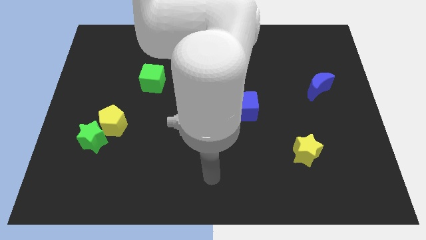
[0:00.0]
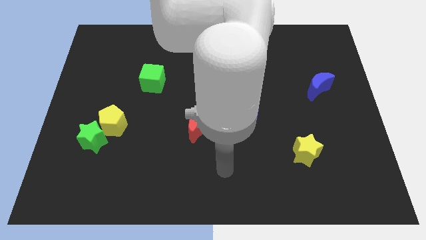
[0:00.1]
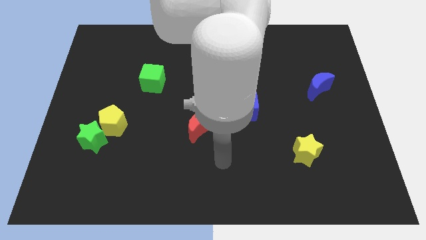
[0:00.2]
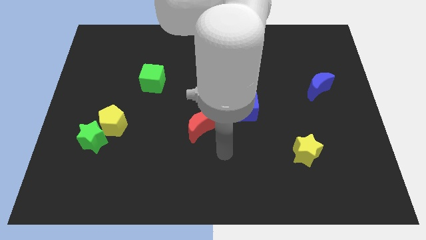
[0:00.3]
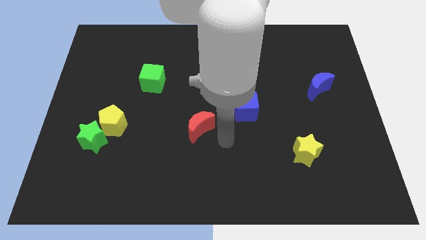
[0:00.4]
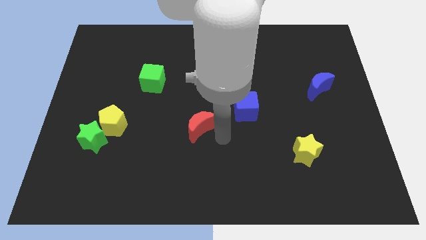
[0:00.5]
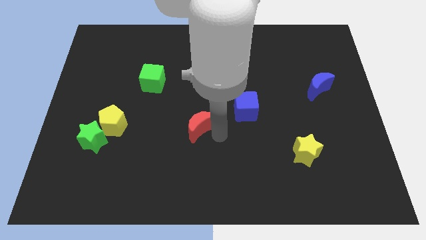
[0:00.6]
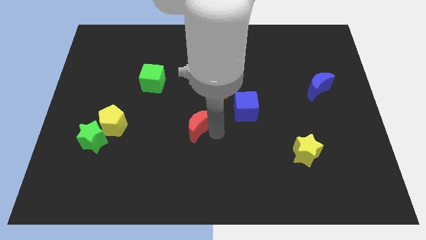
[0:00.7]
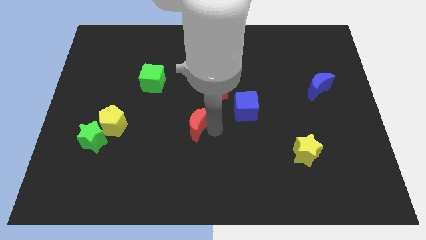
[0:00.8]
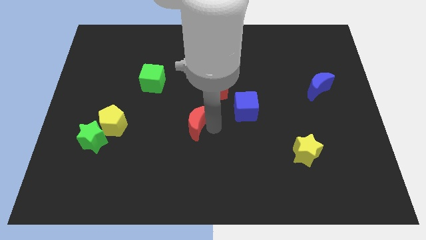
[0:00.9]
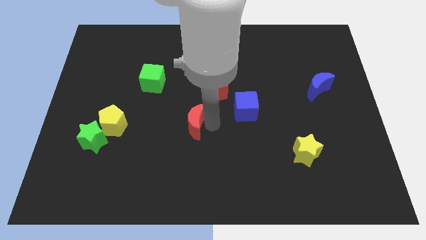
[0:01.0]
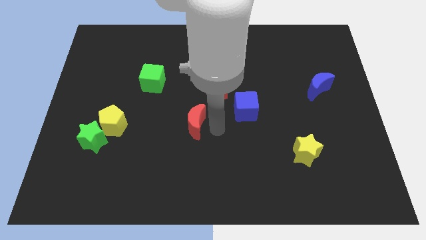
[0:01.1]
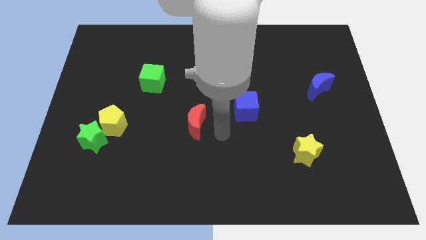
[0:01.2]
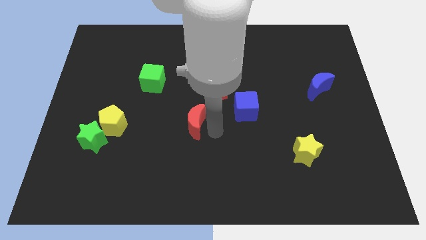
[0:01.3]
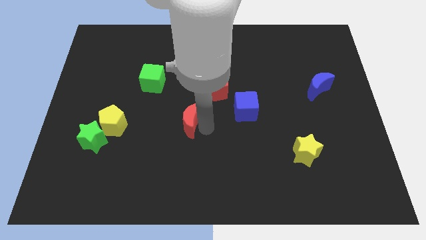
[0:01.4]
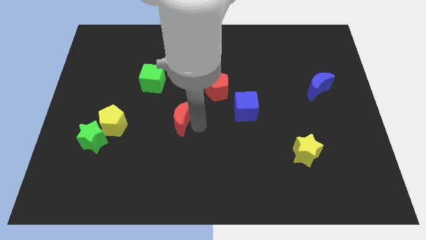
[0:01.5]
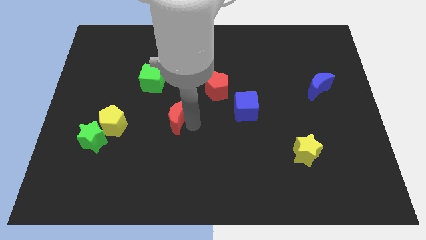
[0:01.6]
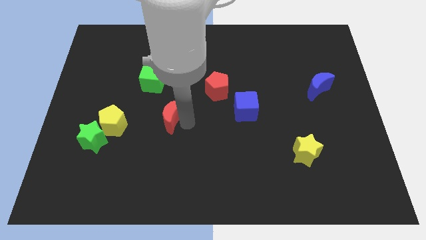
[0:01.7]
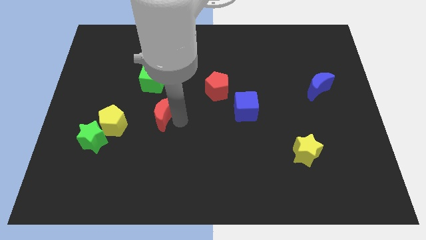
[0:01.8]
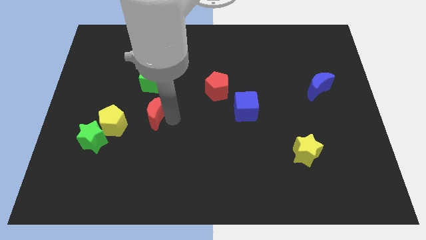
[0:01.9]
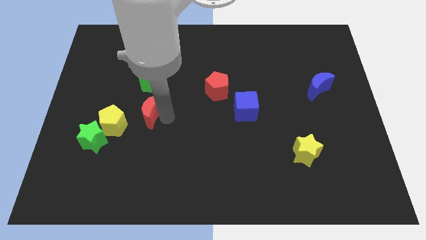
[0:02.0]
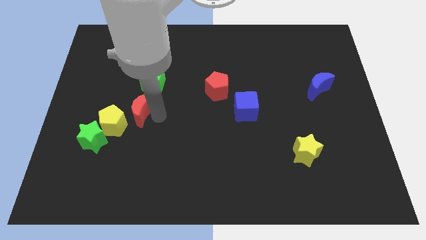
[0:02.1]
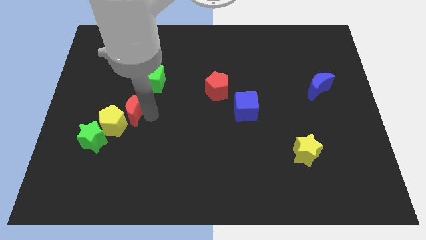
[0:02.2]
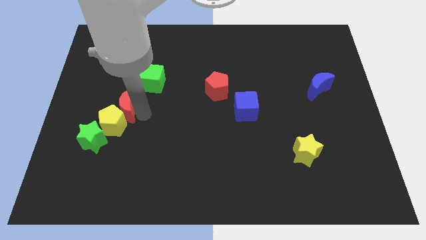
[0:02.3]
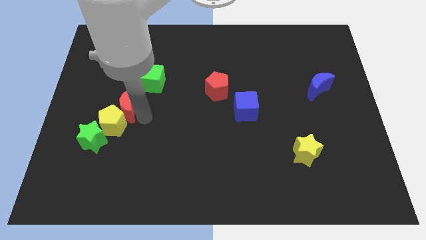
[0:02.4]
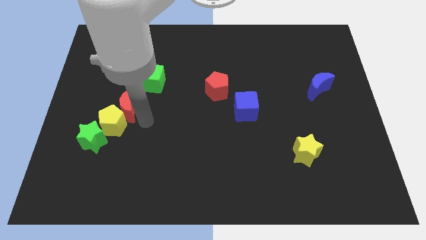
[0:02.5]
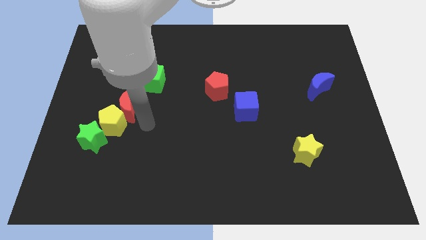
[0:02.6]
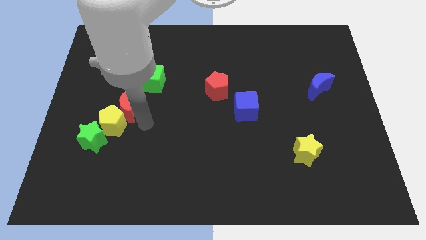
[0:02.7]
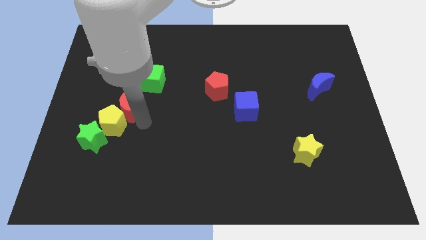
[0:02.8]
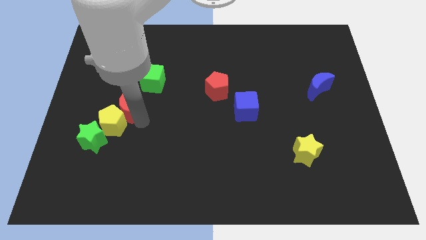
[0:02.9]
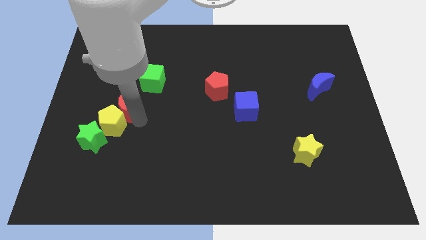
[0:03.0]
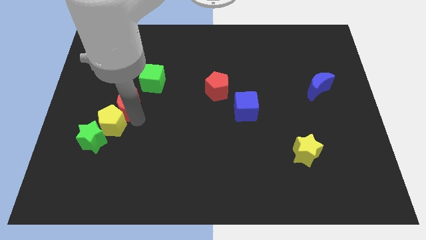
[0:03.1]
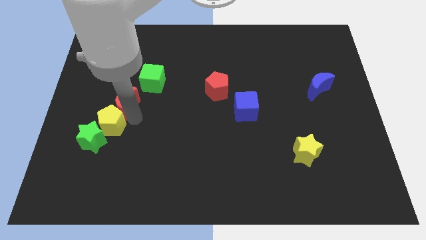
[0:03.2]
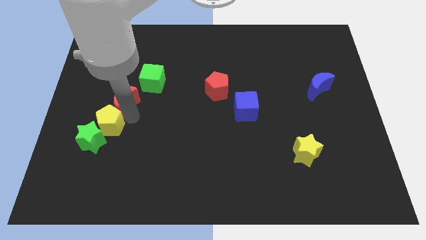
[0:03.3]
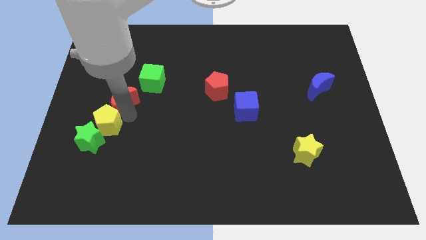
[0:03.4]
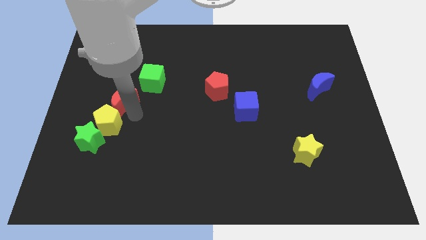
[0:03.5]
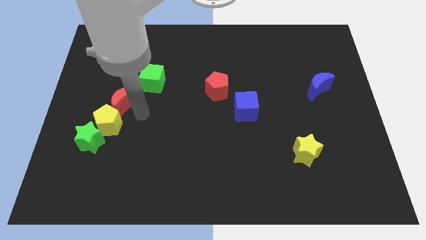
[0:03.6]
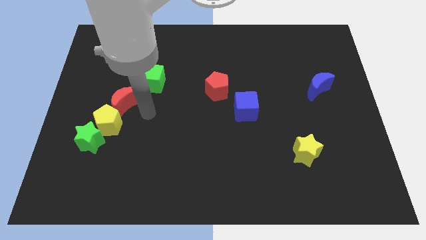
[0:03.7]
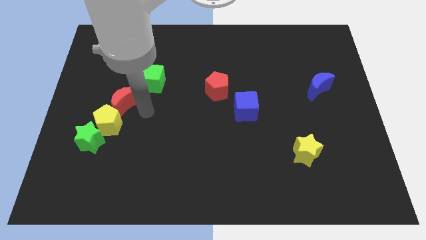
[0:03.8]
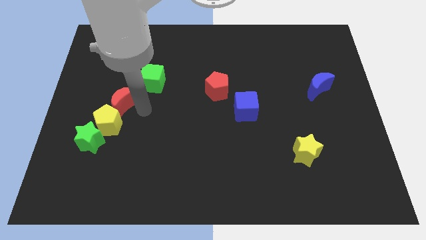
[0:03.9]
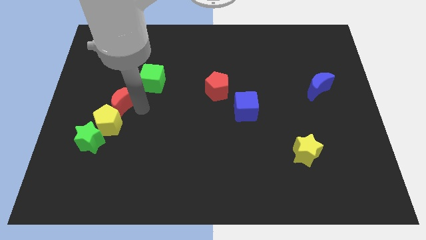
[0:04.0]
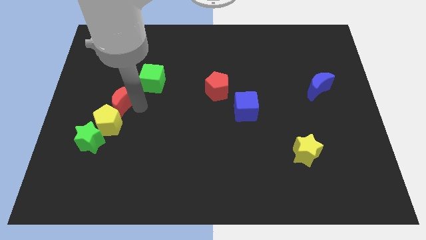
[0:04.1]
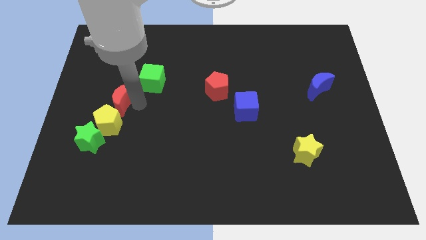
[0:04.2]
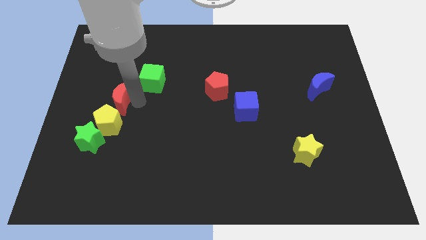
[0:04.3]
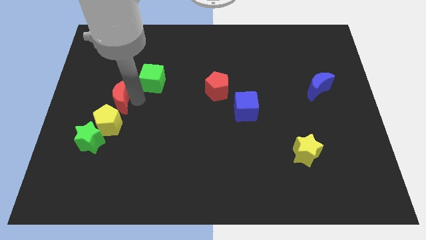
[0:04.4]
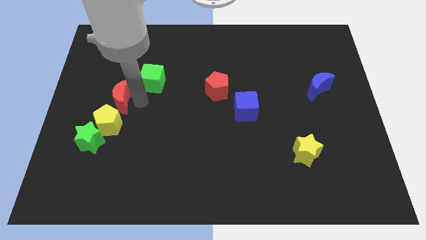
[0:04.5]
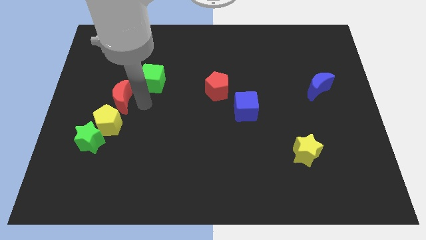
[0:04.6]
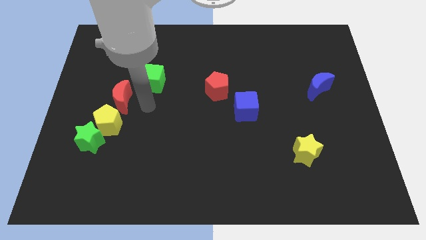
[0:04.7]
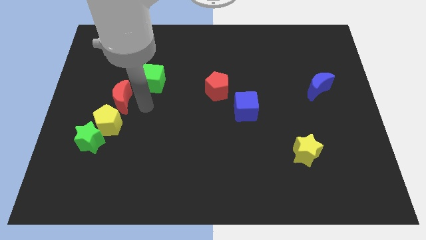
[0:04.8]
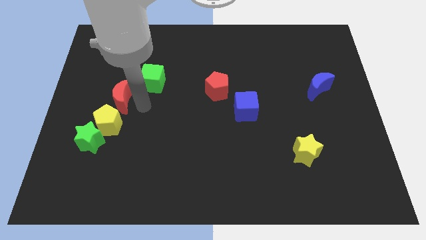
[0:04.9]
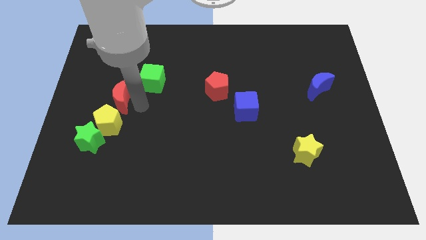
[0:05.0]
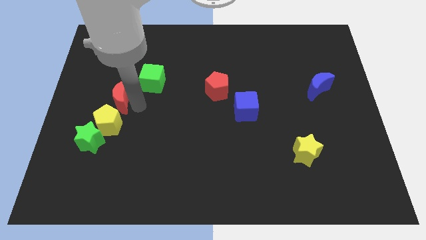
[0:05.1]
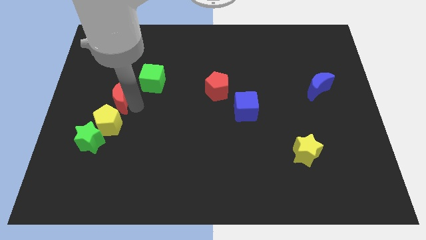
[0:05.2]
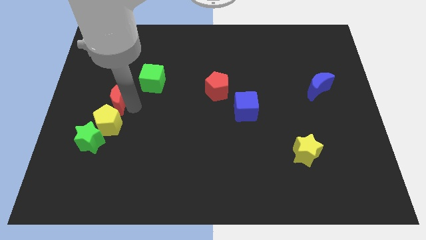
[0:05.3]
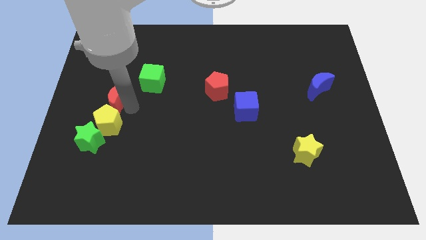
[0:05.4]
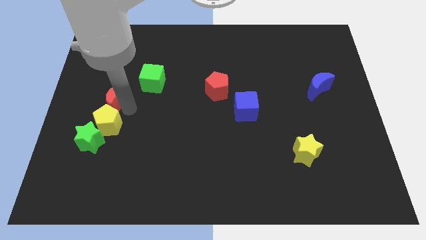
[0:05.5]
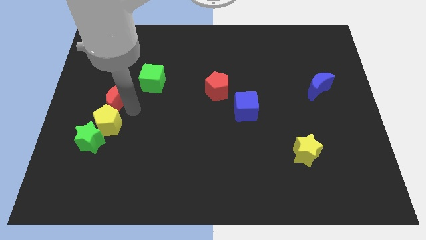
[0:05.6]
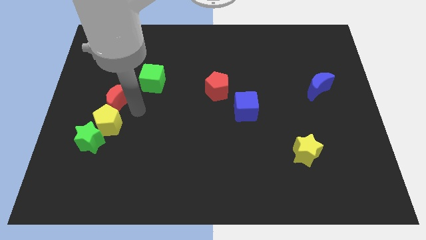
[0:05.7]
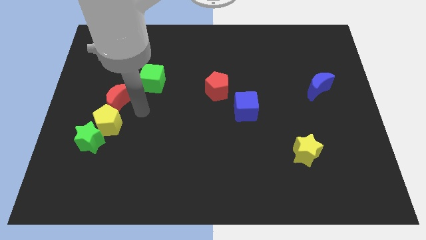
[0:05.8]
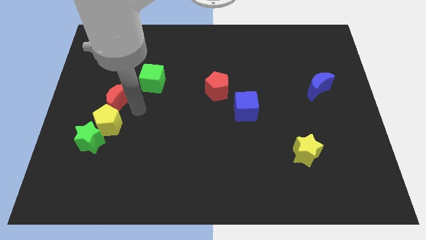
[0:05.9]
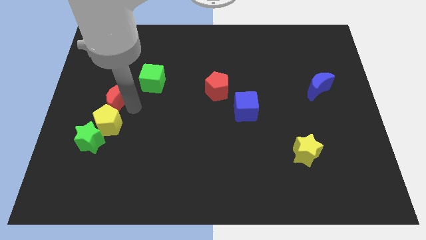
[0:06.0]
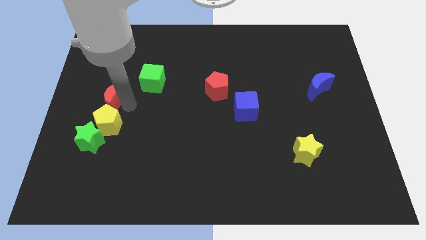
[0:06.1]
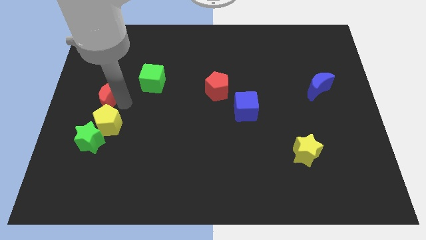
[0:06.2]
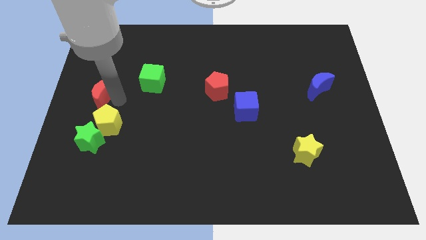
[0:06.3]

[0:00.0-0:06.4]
move the red moon to the left side of the board
